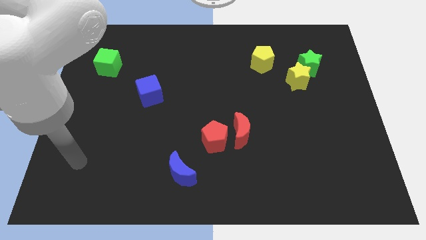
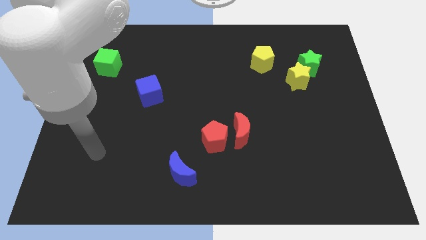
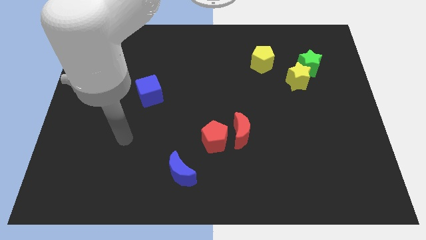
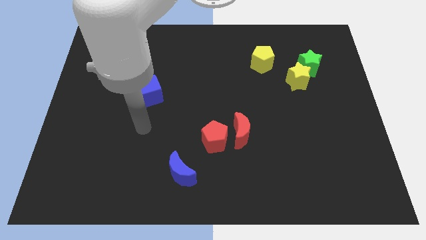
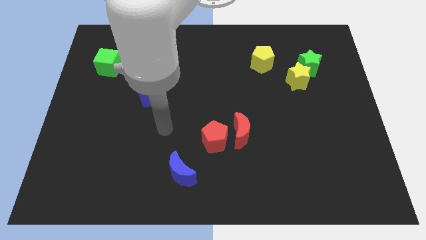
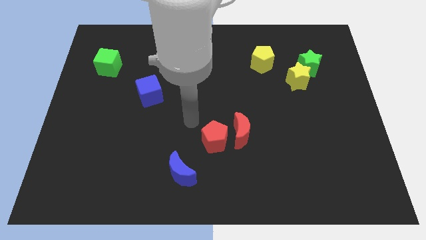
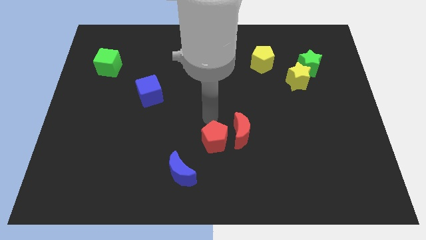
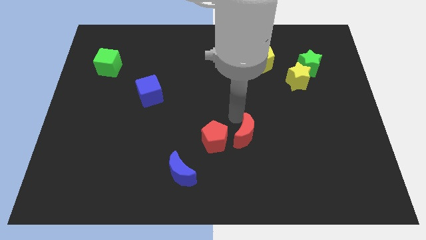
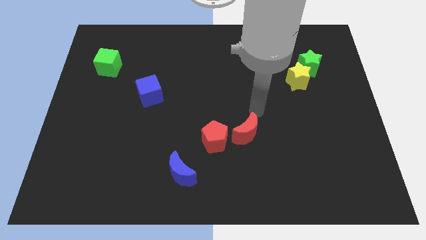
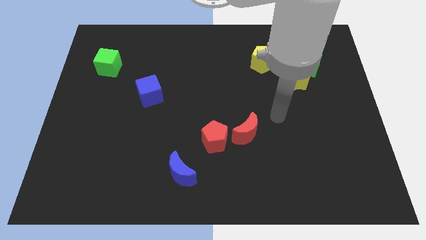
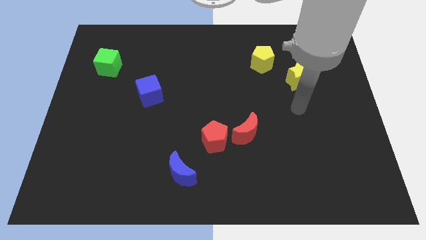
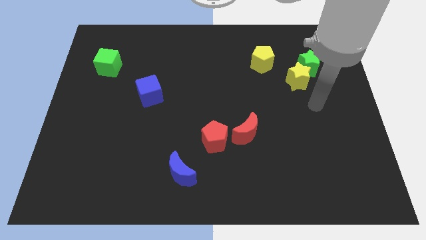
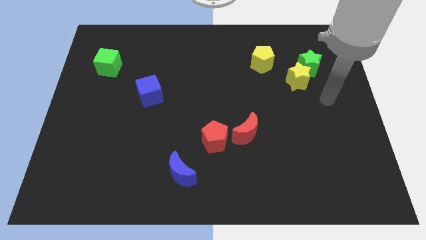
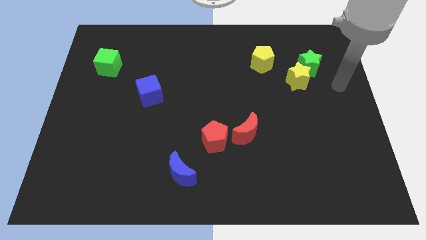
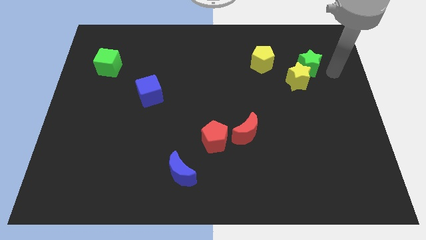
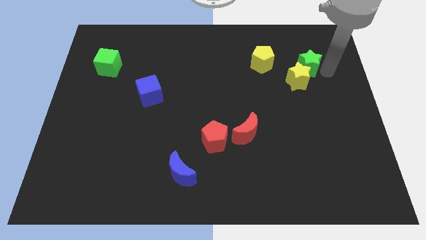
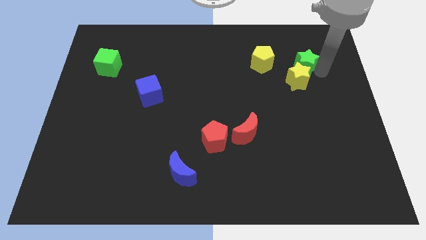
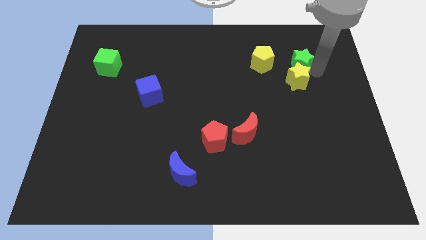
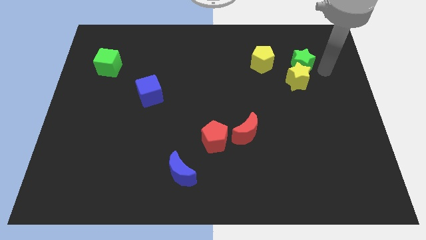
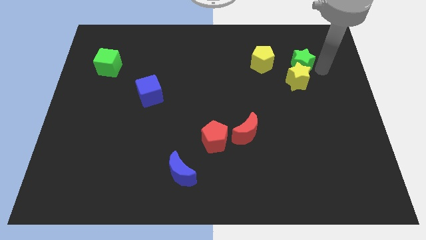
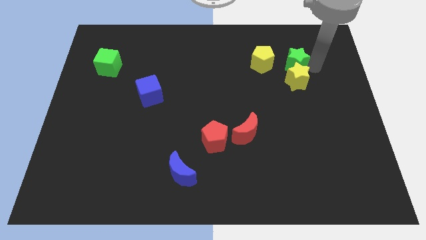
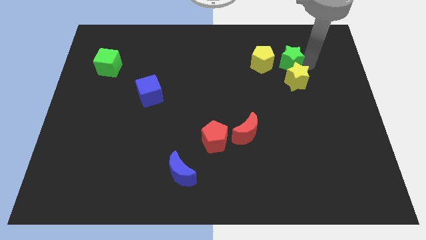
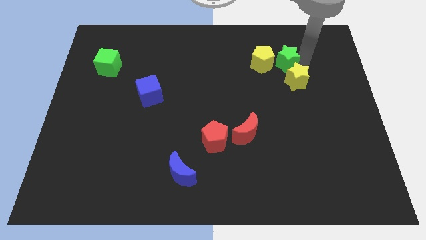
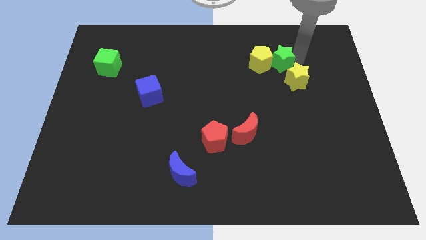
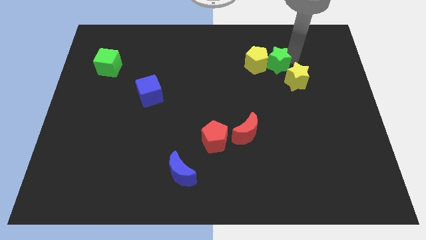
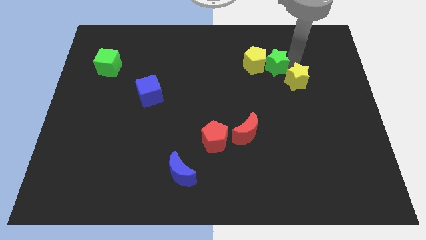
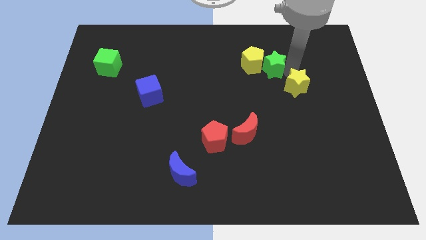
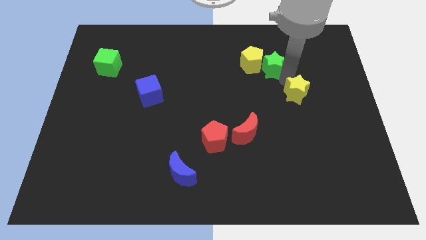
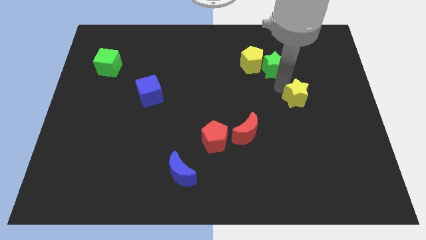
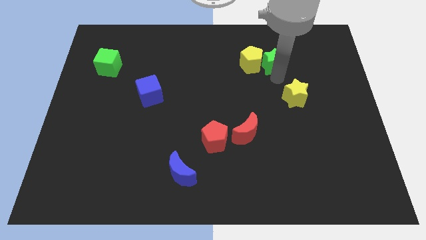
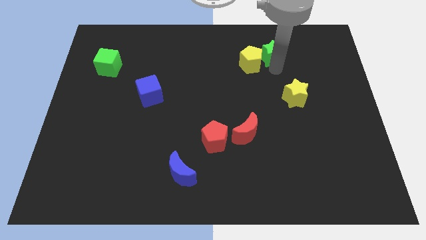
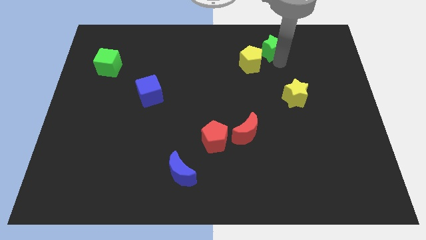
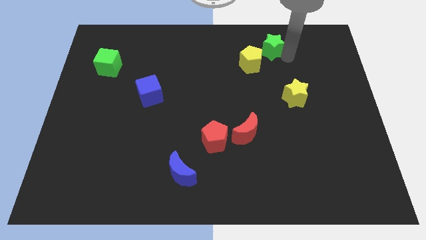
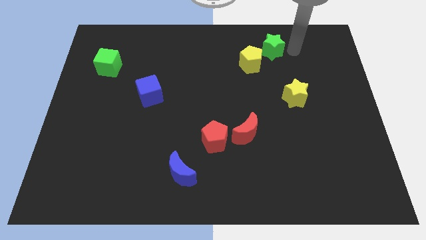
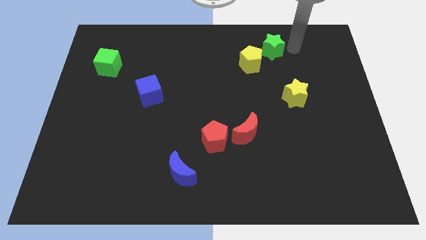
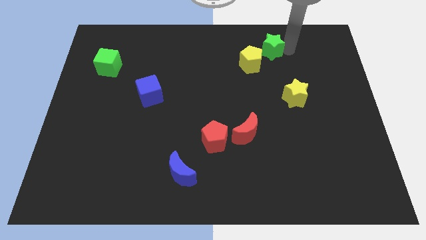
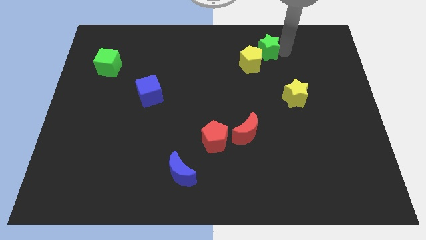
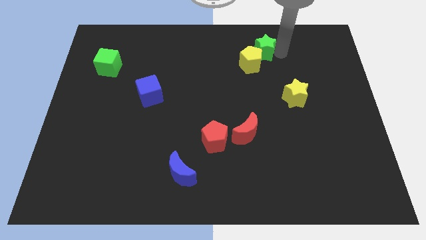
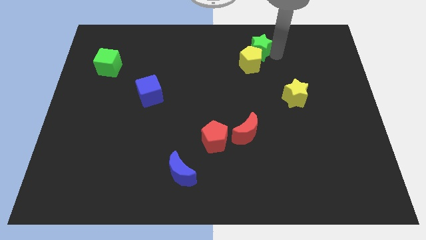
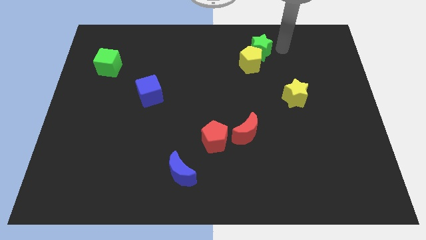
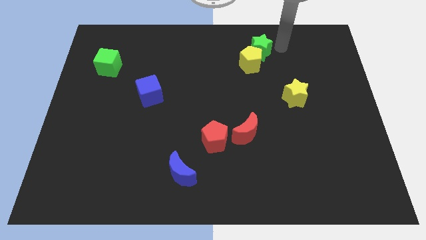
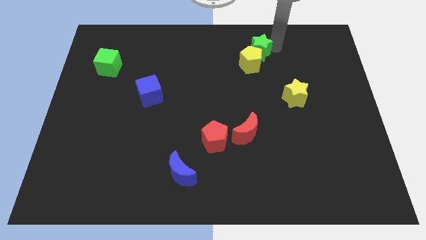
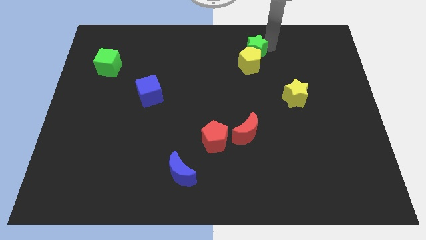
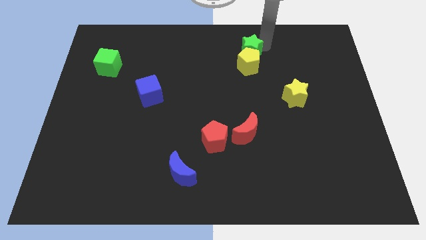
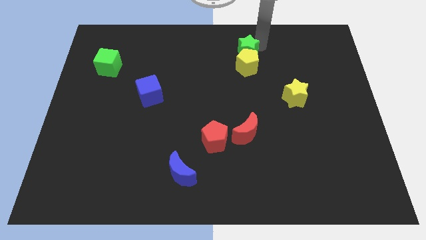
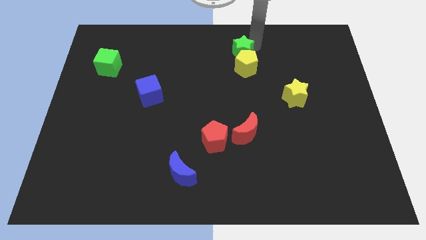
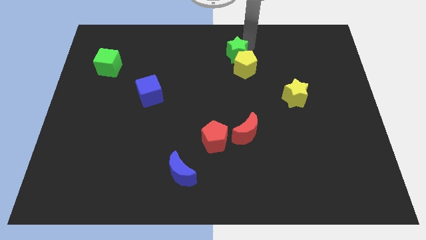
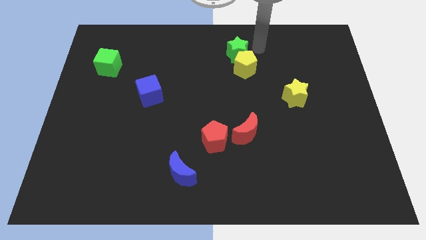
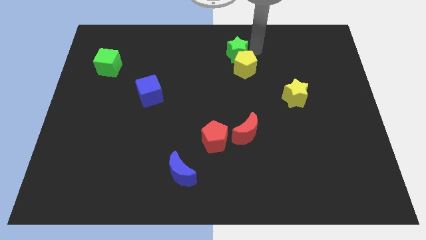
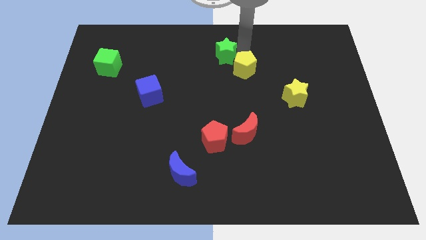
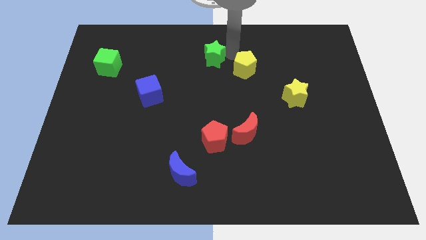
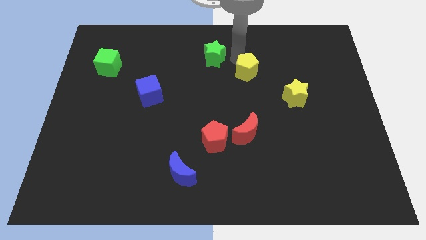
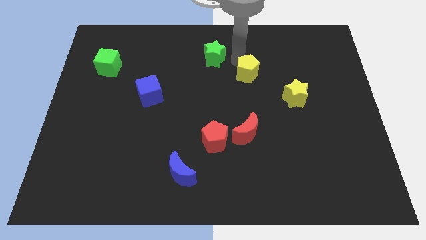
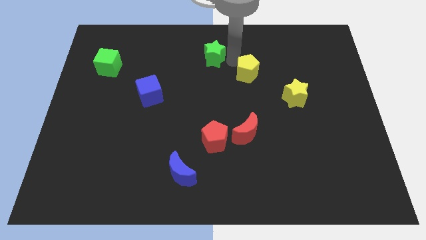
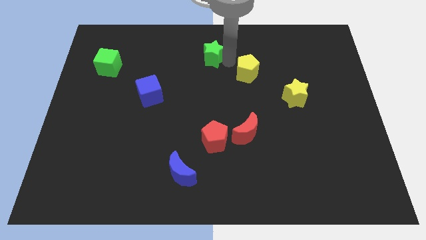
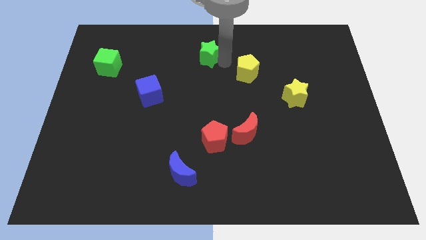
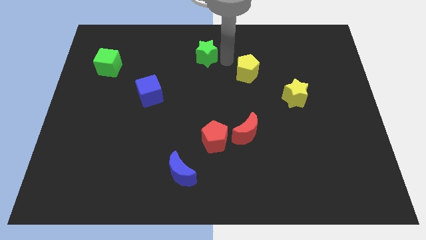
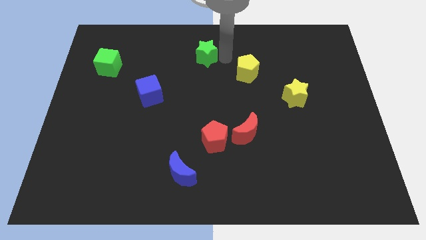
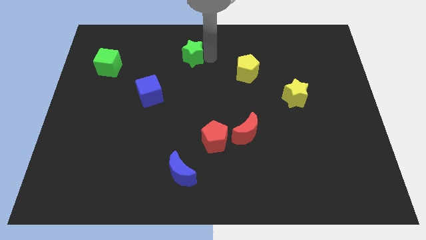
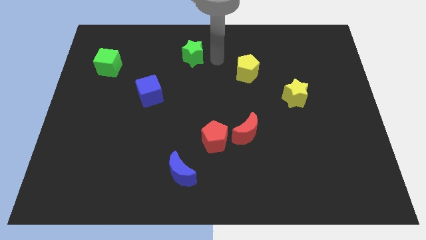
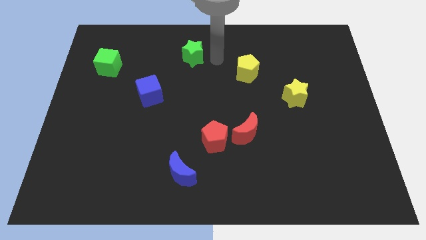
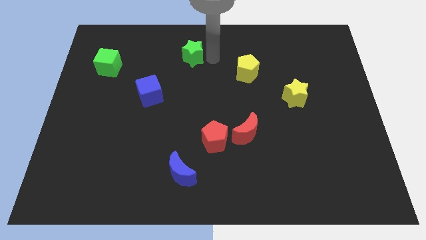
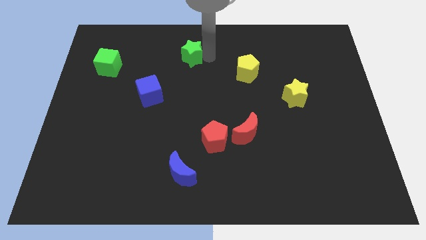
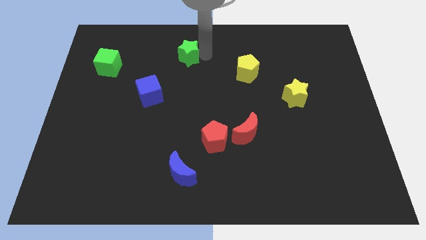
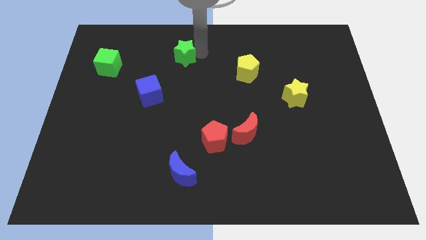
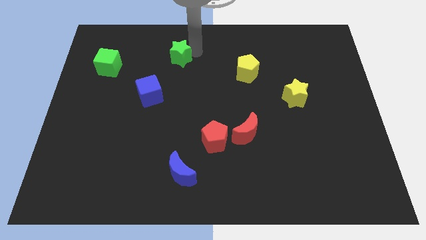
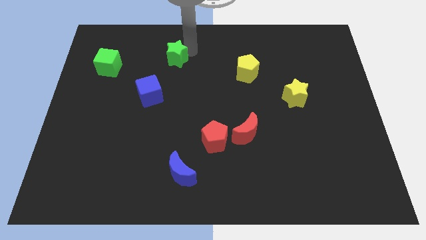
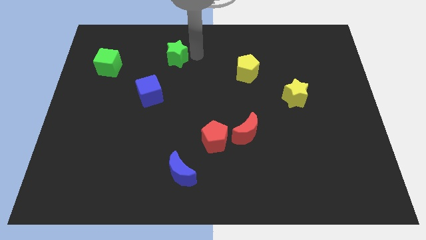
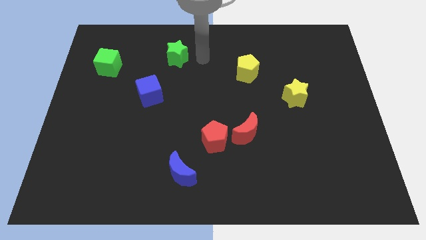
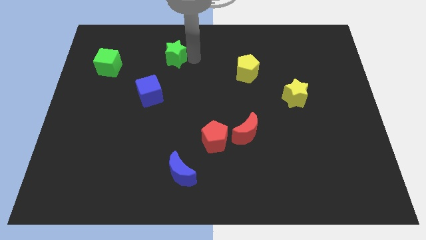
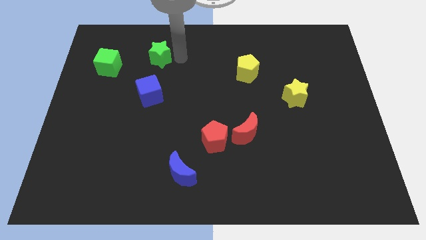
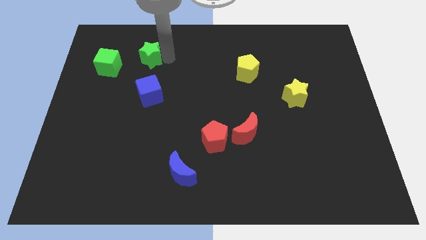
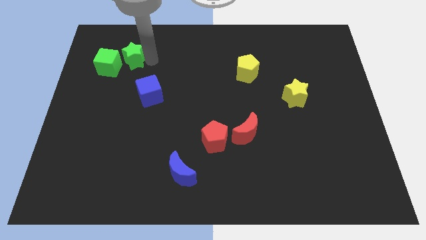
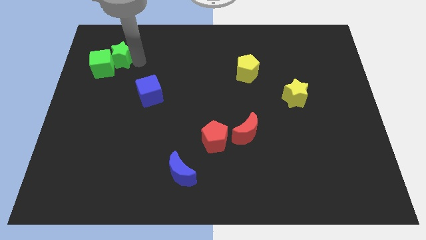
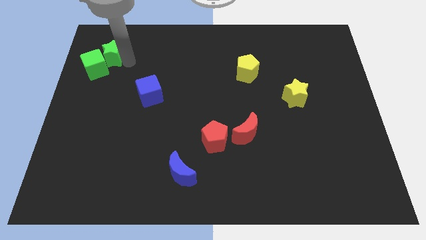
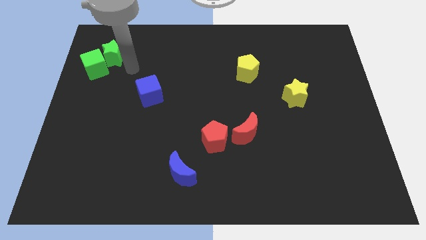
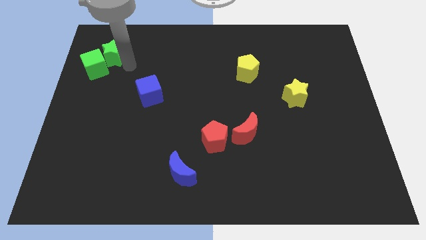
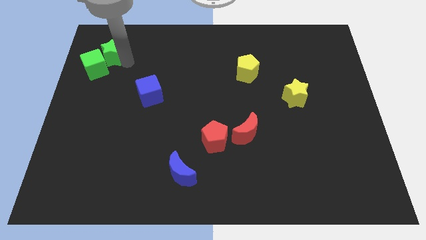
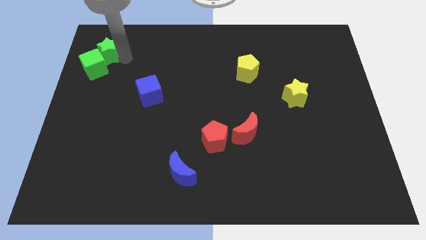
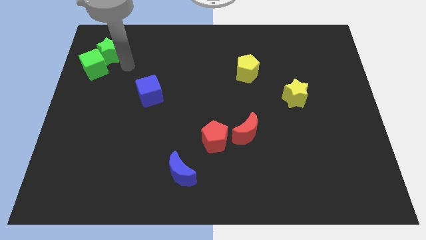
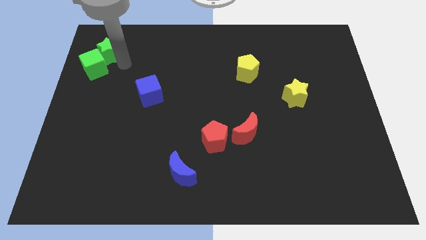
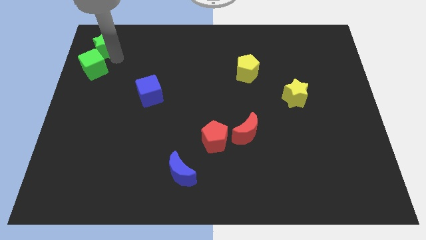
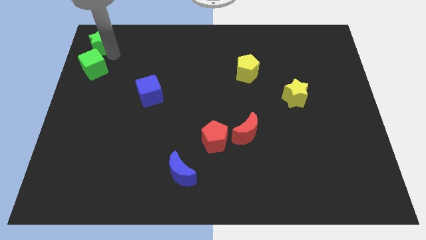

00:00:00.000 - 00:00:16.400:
slide the green star to the top left corner
